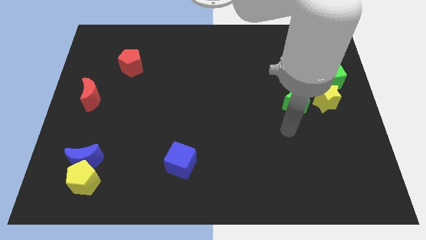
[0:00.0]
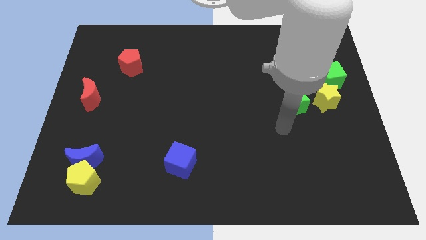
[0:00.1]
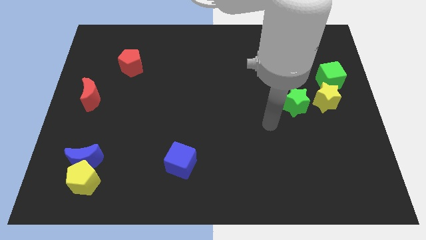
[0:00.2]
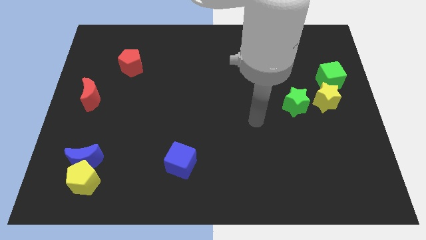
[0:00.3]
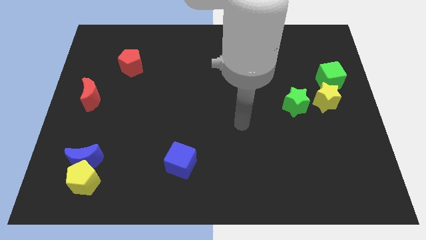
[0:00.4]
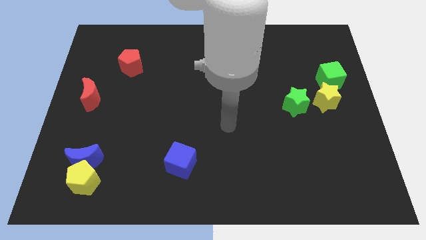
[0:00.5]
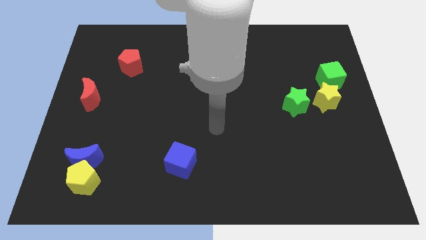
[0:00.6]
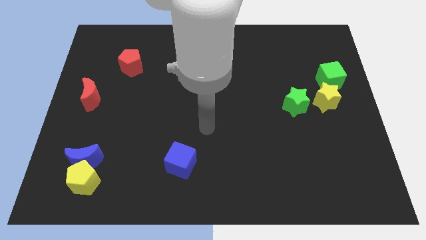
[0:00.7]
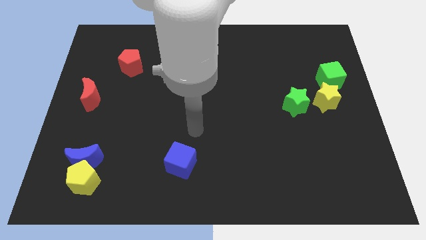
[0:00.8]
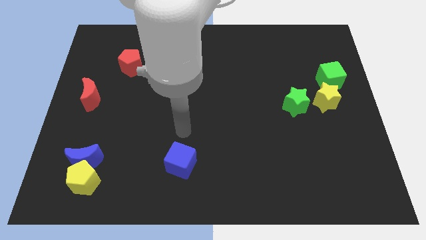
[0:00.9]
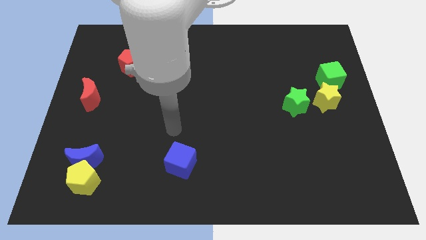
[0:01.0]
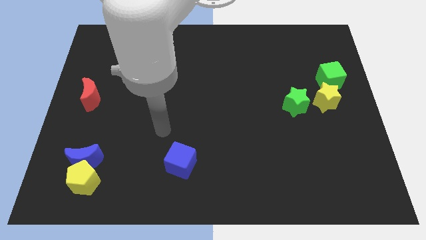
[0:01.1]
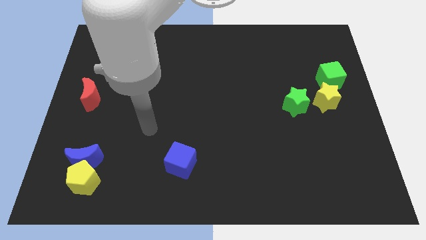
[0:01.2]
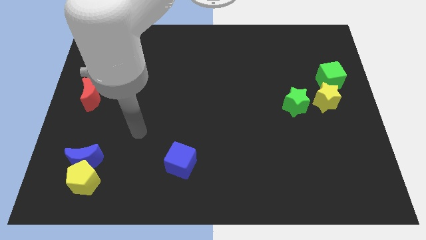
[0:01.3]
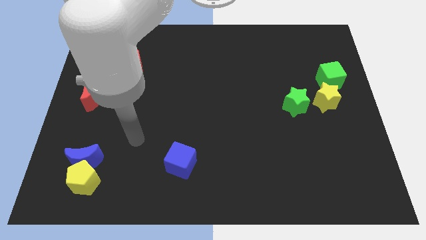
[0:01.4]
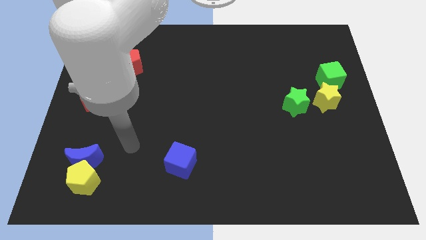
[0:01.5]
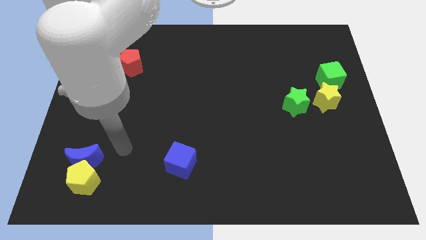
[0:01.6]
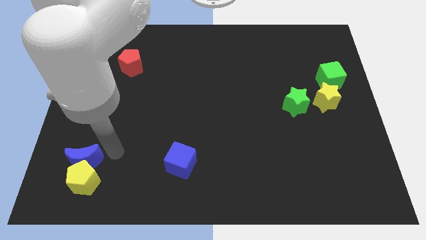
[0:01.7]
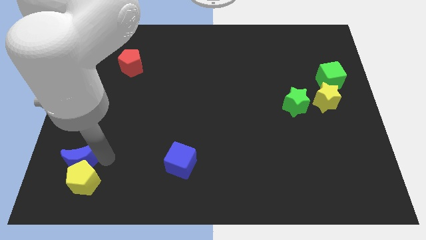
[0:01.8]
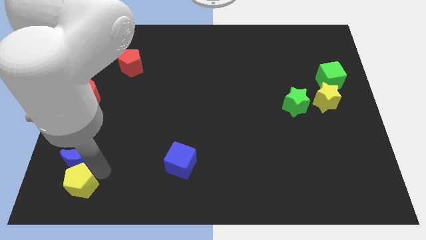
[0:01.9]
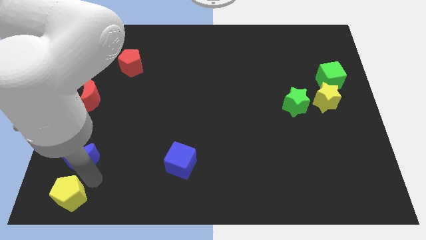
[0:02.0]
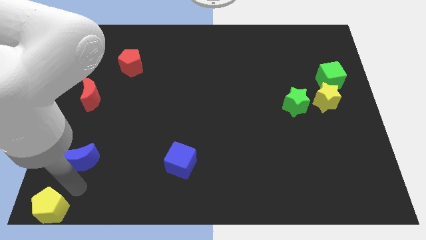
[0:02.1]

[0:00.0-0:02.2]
move the blue moon away from the yellow pentagon

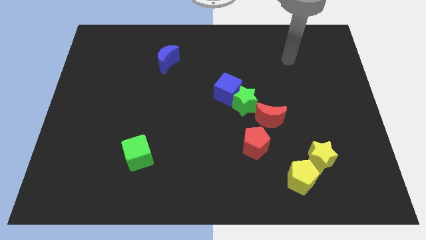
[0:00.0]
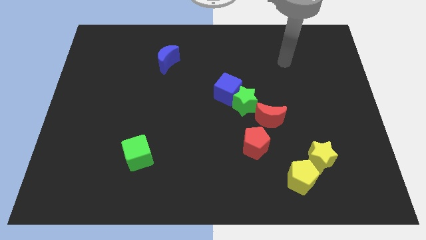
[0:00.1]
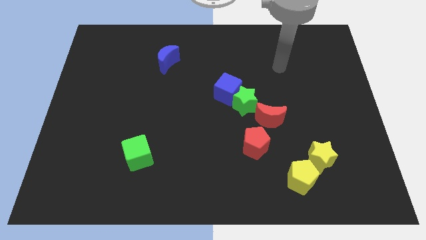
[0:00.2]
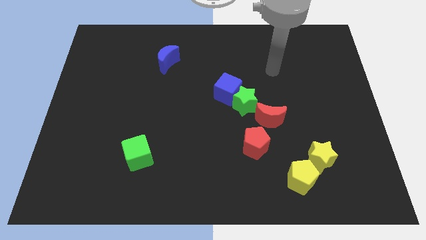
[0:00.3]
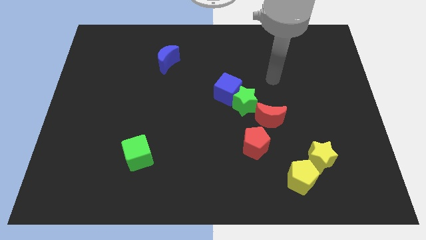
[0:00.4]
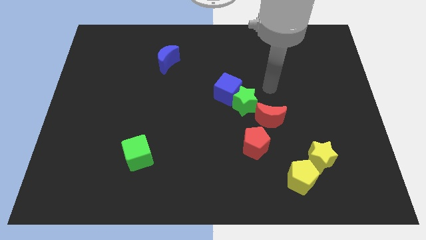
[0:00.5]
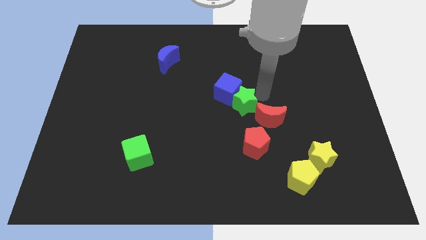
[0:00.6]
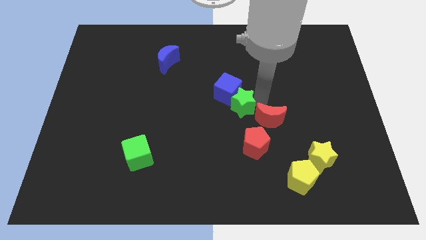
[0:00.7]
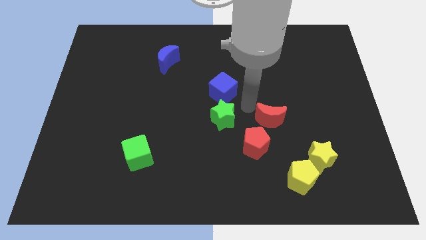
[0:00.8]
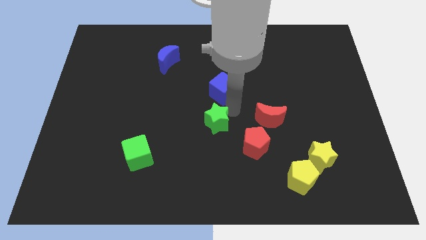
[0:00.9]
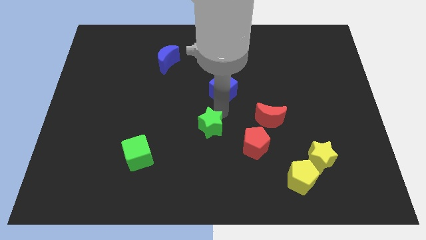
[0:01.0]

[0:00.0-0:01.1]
pull the blue cube apart from the green star

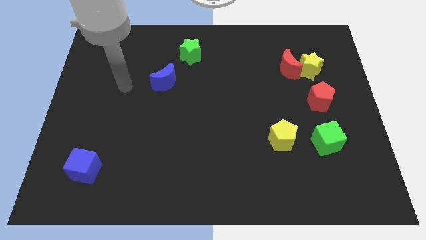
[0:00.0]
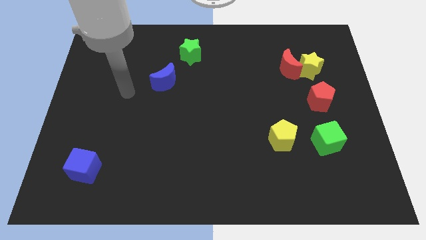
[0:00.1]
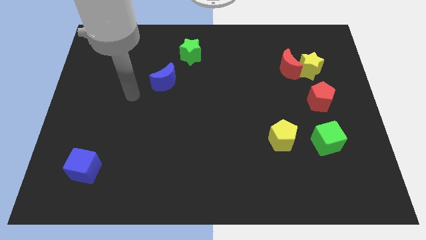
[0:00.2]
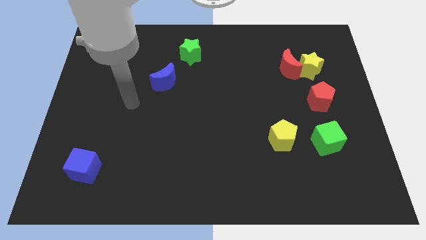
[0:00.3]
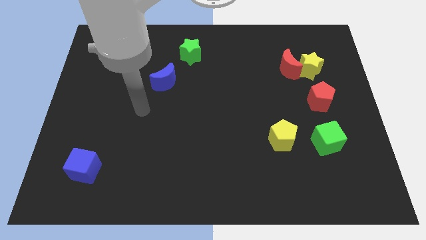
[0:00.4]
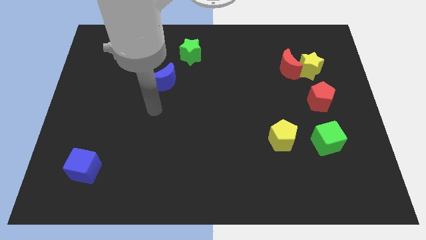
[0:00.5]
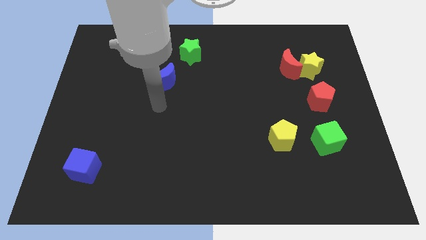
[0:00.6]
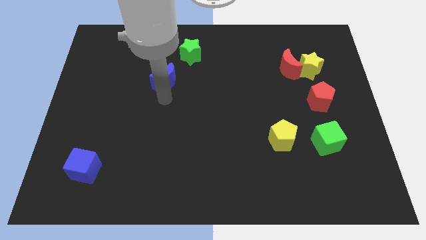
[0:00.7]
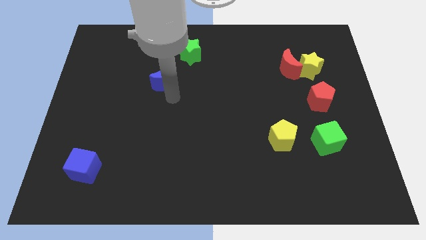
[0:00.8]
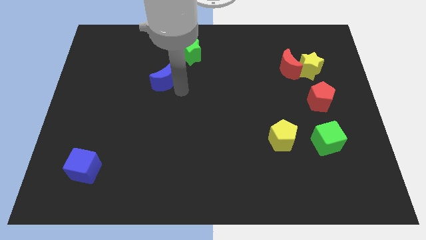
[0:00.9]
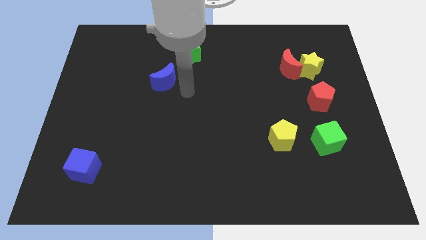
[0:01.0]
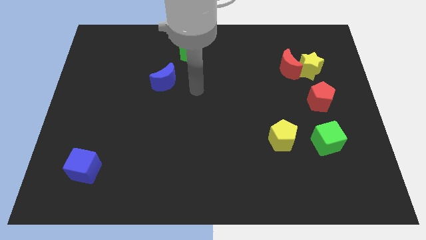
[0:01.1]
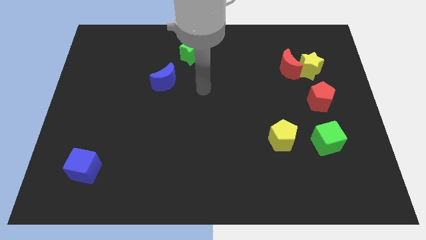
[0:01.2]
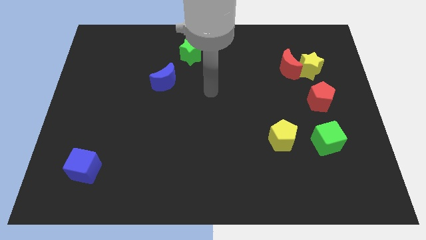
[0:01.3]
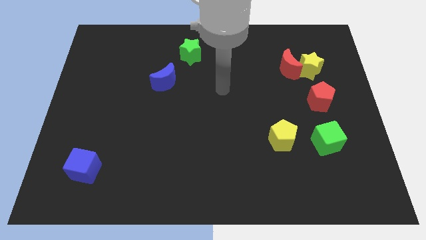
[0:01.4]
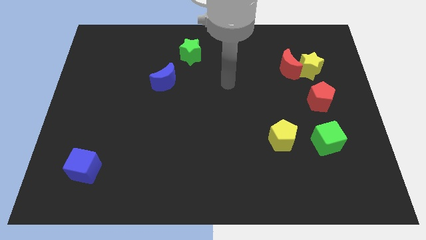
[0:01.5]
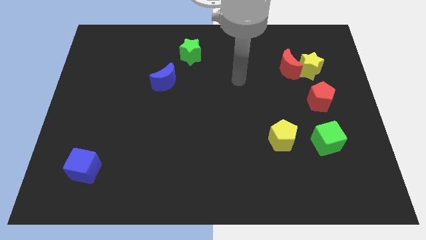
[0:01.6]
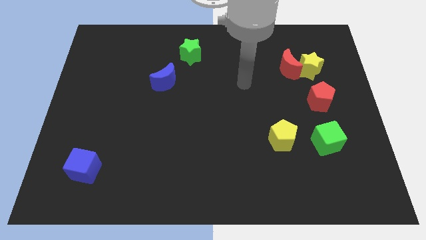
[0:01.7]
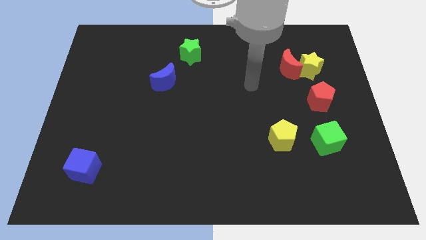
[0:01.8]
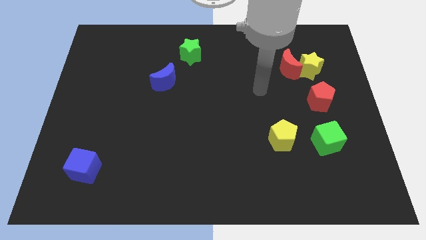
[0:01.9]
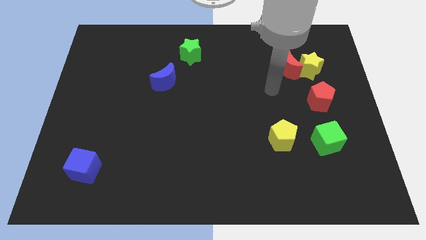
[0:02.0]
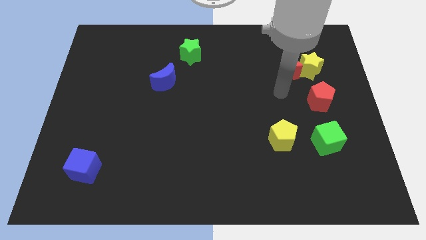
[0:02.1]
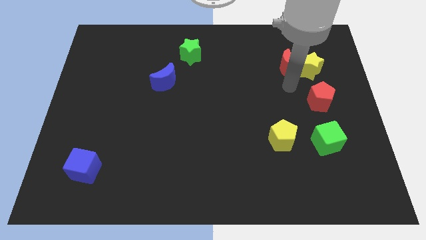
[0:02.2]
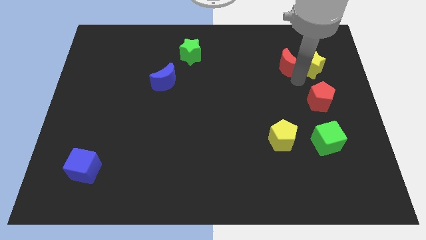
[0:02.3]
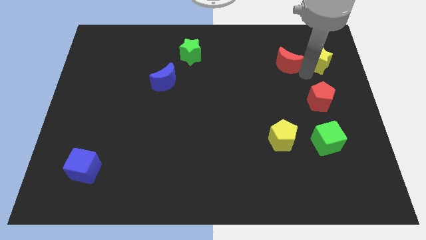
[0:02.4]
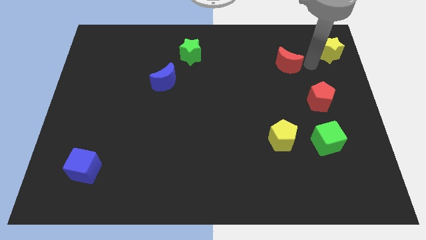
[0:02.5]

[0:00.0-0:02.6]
separate the red moon from the yellow star

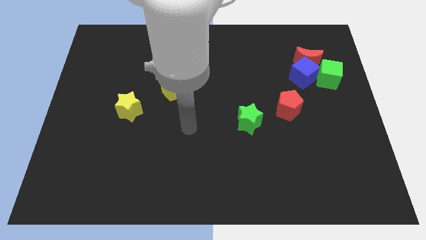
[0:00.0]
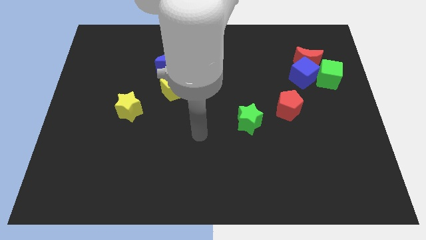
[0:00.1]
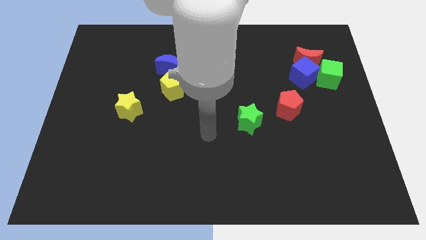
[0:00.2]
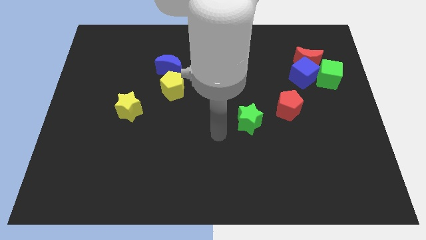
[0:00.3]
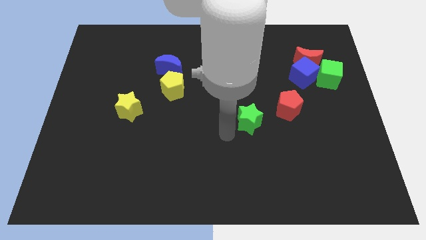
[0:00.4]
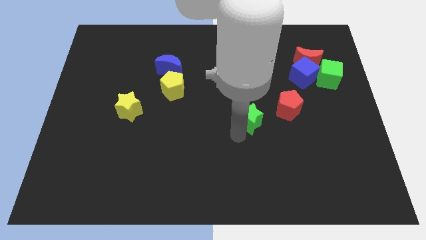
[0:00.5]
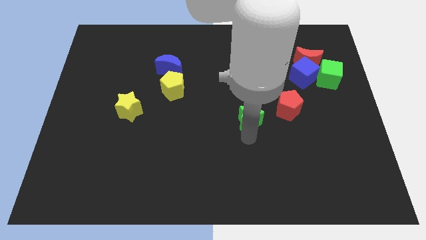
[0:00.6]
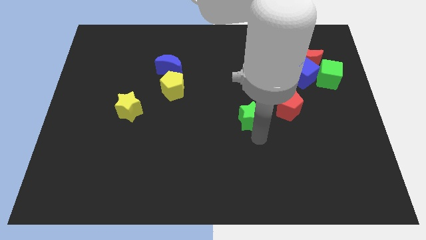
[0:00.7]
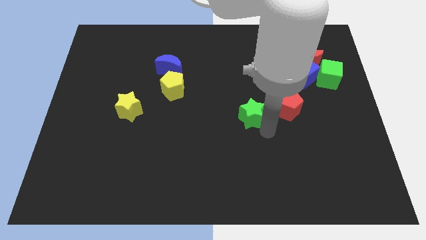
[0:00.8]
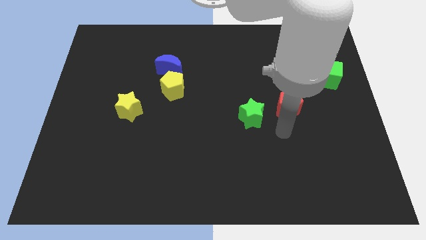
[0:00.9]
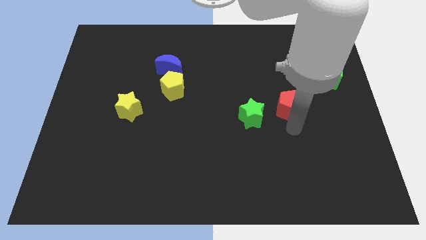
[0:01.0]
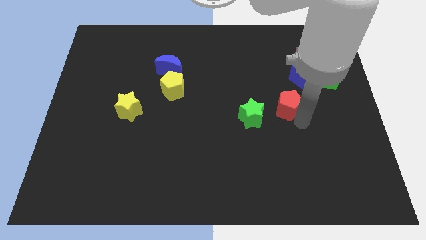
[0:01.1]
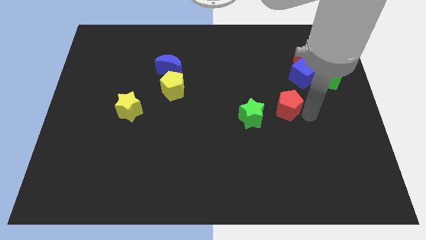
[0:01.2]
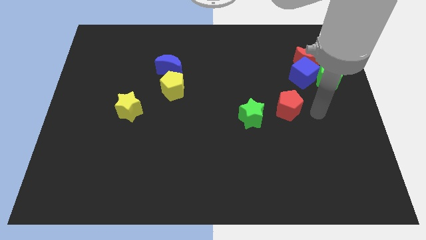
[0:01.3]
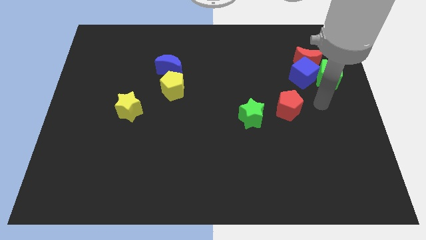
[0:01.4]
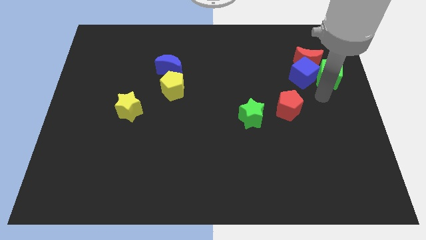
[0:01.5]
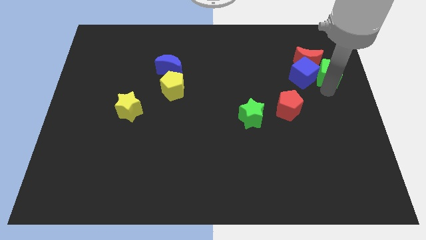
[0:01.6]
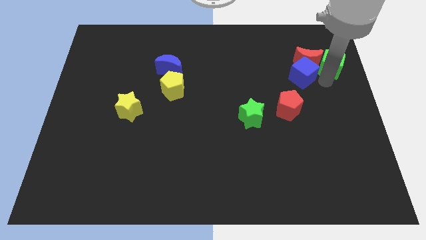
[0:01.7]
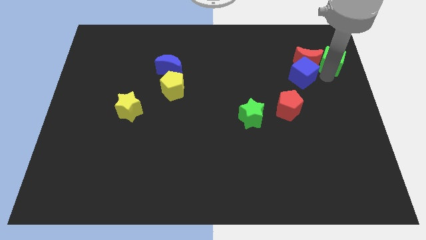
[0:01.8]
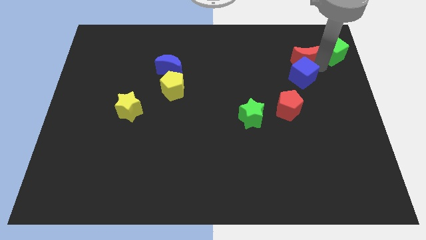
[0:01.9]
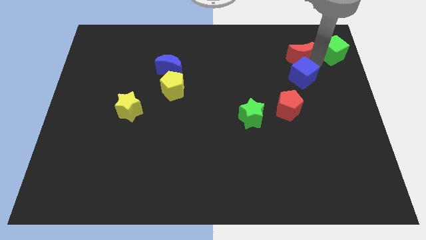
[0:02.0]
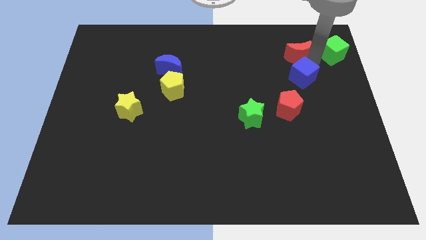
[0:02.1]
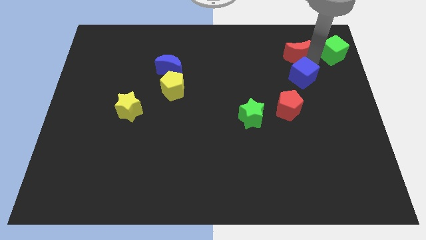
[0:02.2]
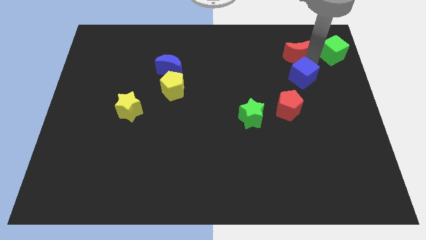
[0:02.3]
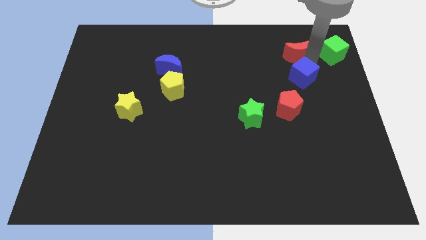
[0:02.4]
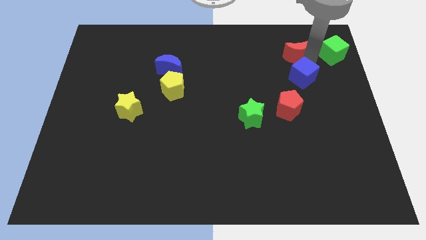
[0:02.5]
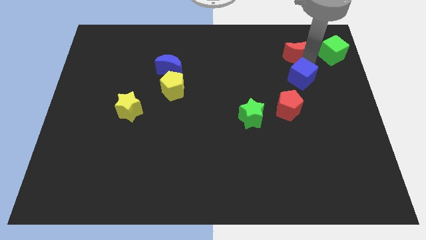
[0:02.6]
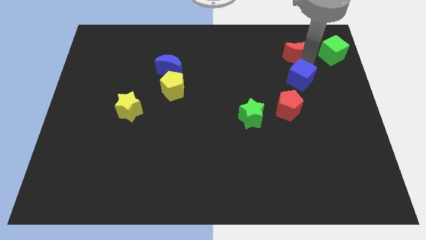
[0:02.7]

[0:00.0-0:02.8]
move the blue cube away from the red moon and green cube

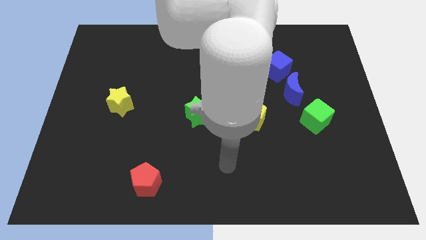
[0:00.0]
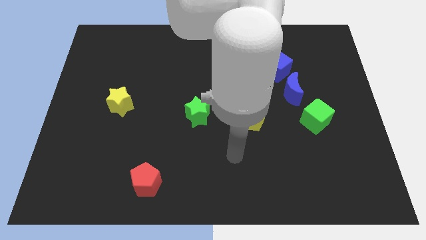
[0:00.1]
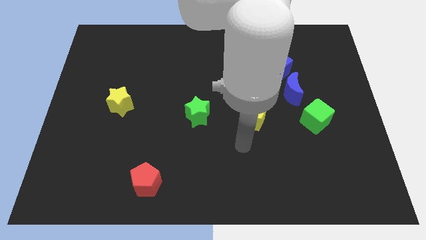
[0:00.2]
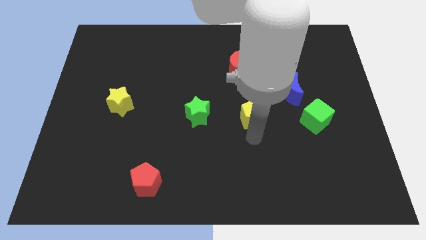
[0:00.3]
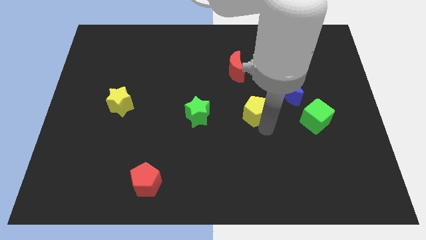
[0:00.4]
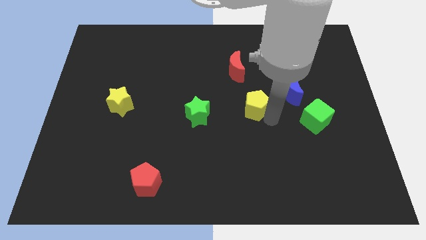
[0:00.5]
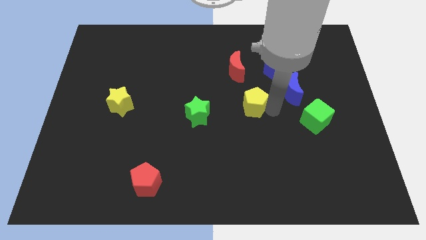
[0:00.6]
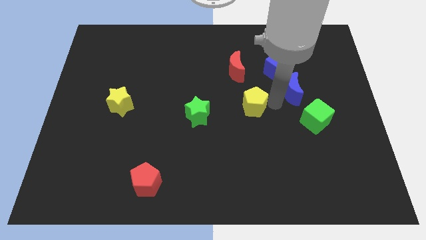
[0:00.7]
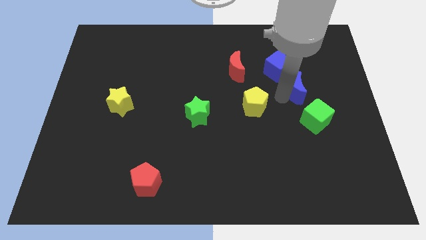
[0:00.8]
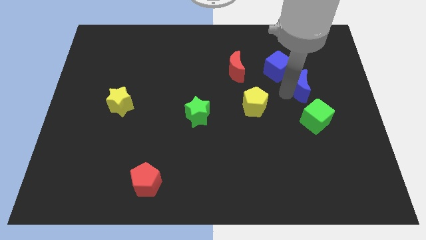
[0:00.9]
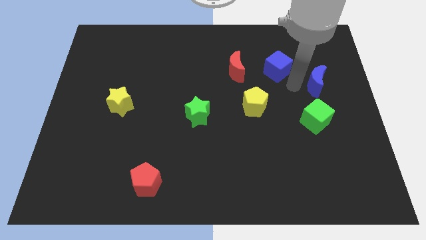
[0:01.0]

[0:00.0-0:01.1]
separate the blue cube from the blue moon
